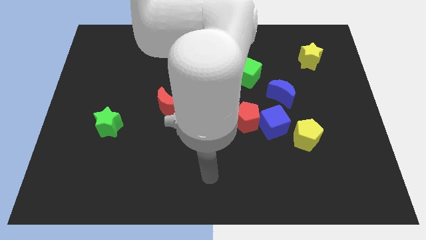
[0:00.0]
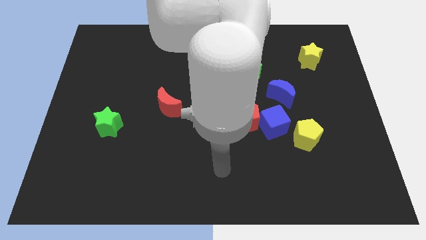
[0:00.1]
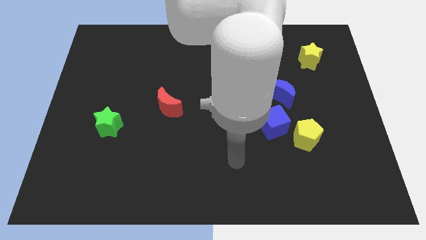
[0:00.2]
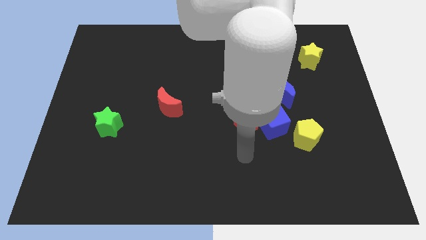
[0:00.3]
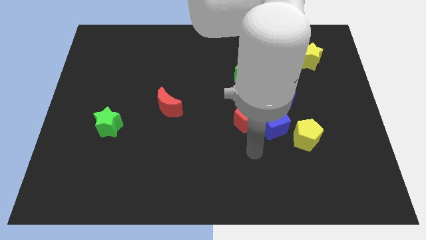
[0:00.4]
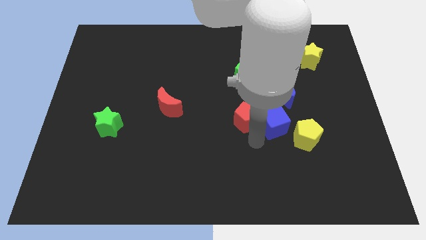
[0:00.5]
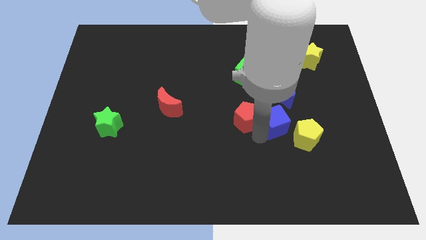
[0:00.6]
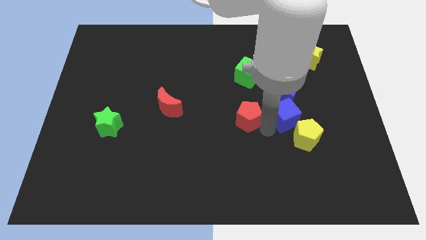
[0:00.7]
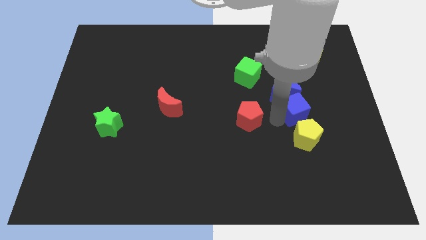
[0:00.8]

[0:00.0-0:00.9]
pull the red pentagon apart from the blue cube

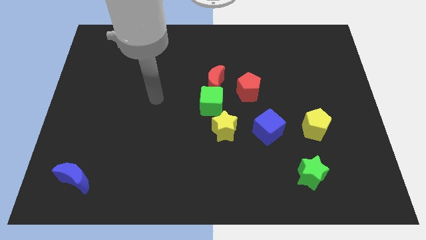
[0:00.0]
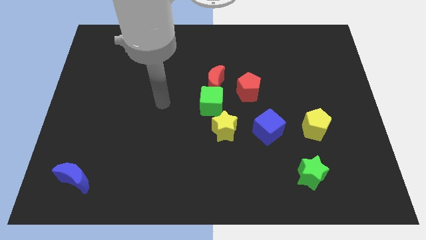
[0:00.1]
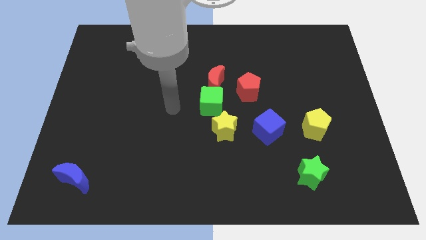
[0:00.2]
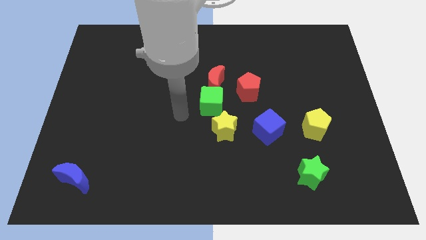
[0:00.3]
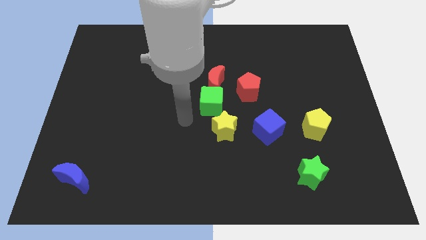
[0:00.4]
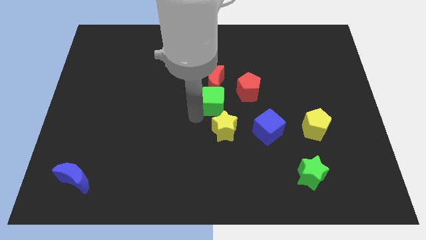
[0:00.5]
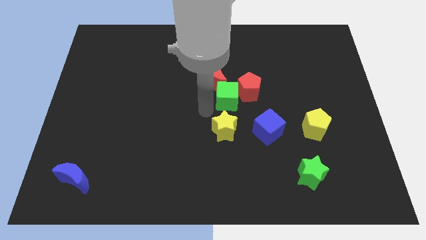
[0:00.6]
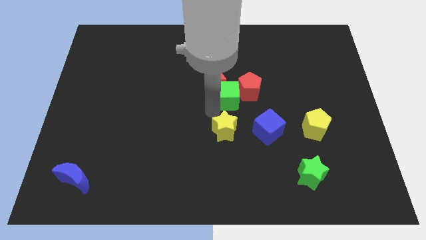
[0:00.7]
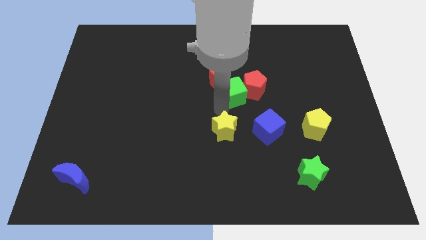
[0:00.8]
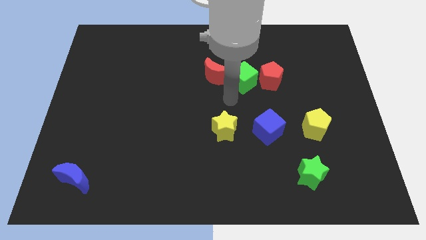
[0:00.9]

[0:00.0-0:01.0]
pull the red moon apart from the green cube and red pentagon

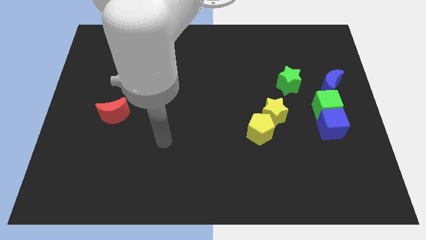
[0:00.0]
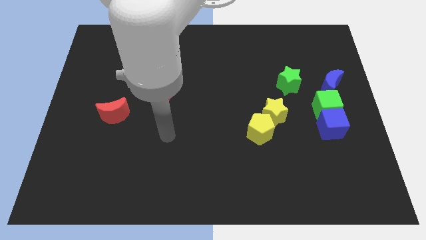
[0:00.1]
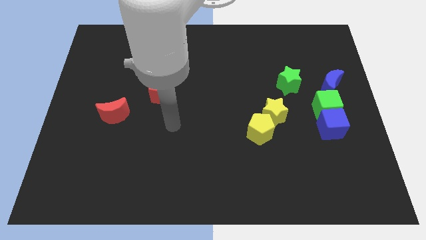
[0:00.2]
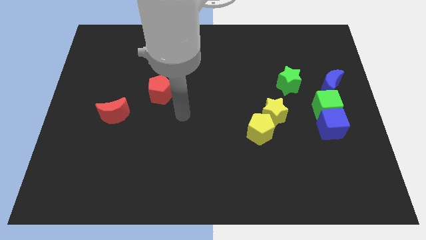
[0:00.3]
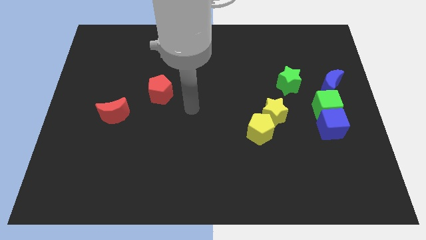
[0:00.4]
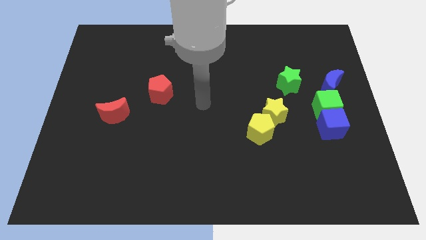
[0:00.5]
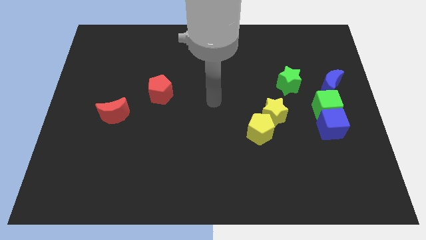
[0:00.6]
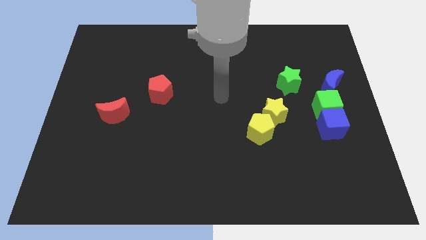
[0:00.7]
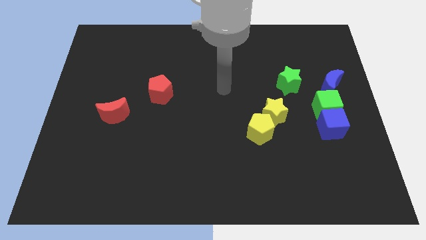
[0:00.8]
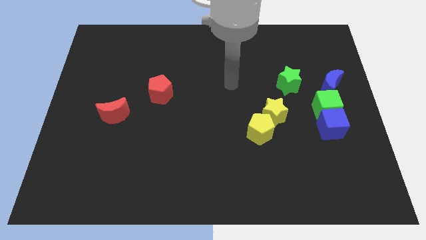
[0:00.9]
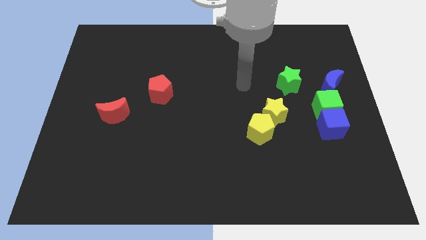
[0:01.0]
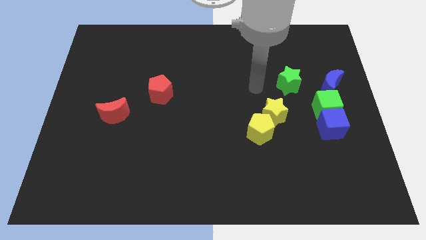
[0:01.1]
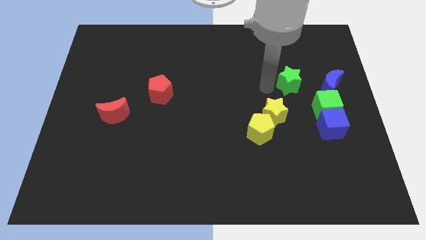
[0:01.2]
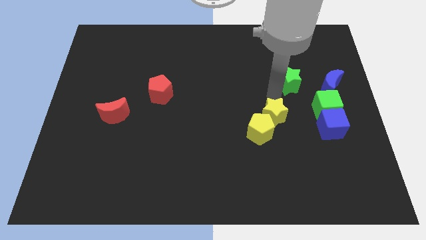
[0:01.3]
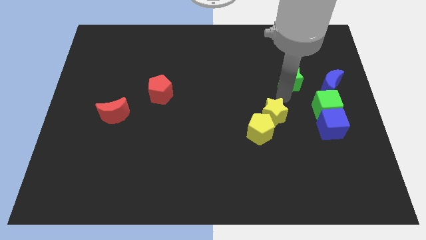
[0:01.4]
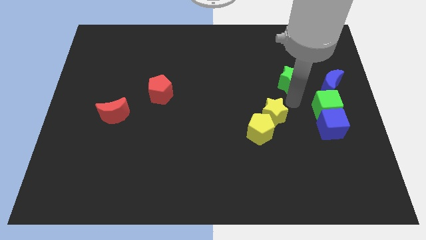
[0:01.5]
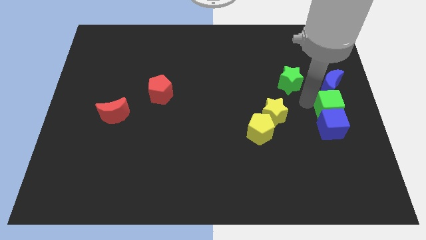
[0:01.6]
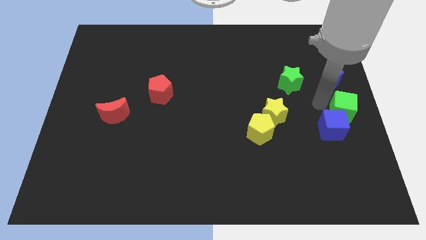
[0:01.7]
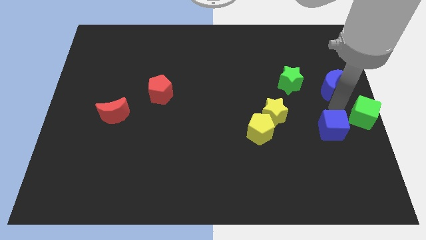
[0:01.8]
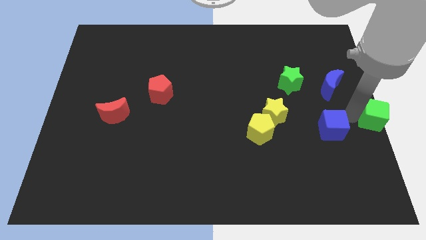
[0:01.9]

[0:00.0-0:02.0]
pull the blue cube apart from the green cube

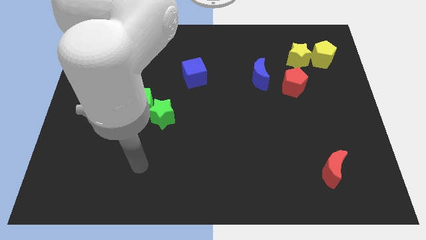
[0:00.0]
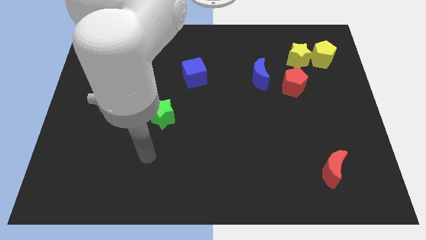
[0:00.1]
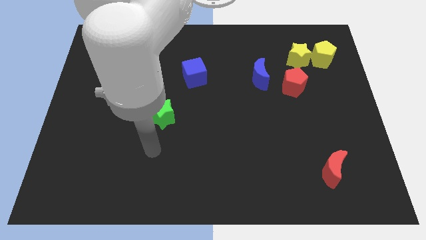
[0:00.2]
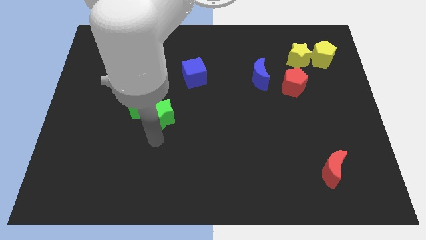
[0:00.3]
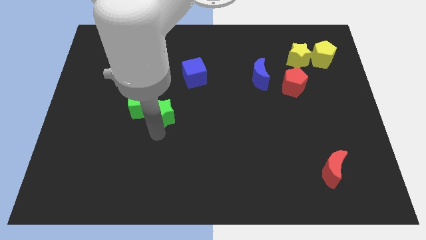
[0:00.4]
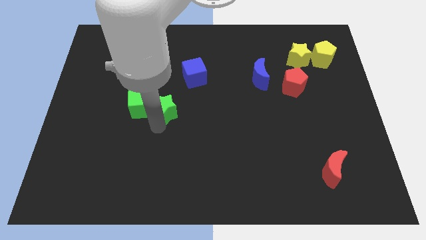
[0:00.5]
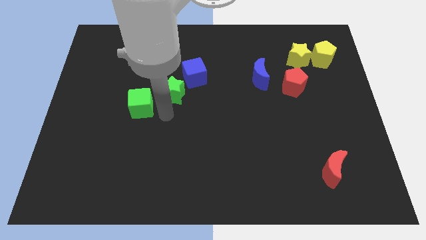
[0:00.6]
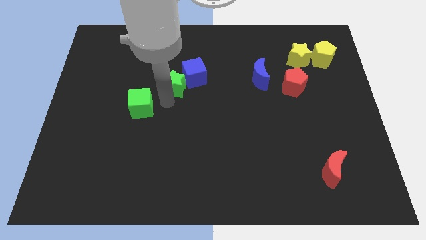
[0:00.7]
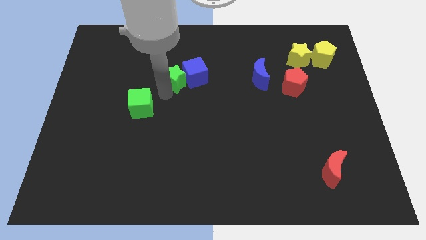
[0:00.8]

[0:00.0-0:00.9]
separate the green cube from the green star

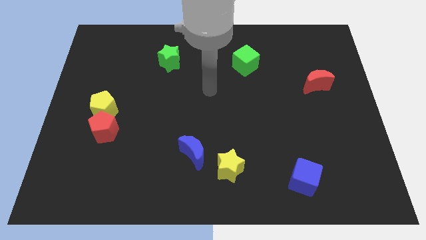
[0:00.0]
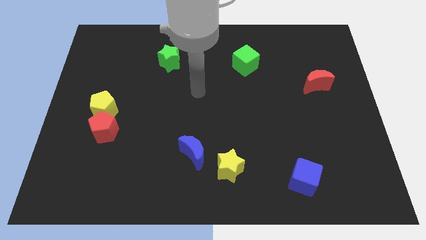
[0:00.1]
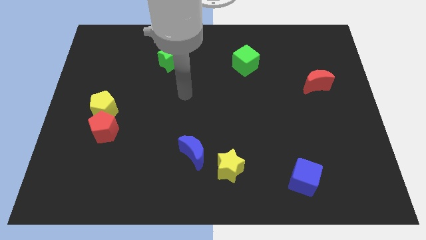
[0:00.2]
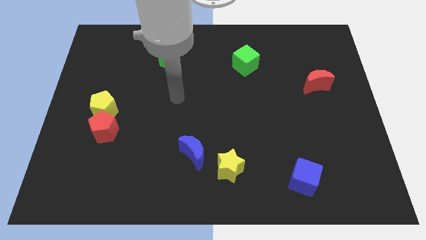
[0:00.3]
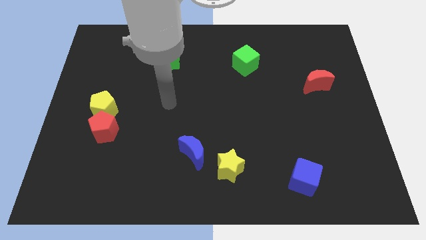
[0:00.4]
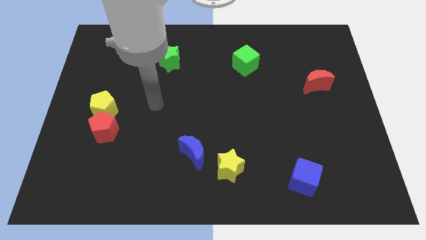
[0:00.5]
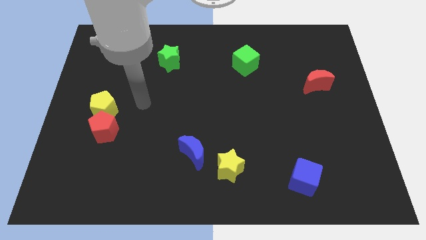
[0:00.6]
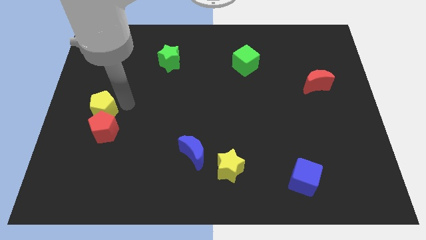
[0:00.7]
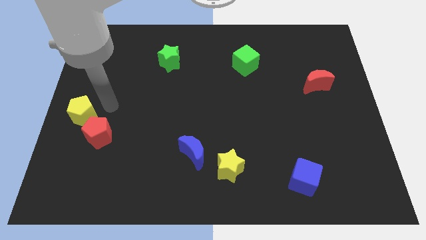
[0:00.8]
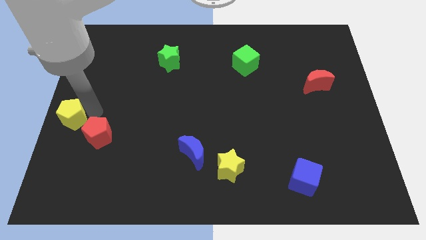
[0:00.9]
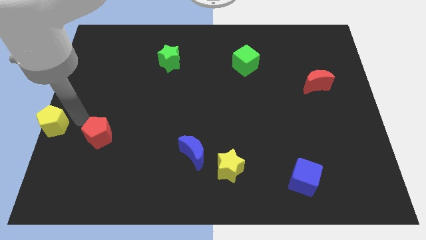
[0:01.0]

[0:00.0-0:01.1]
move the red pentagon away from the yellow pentagon

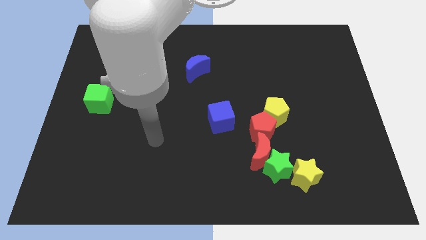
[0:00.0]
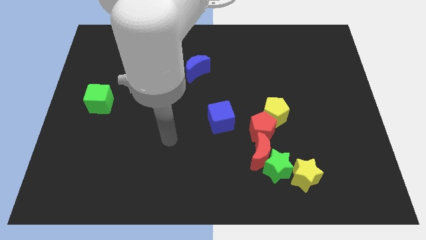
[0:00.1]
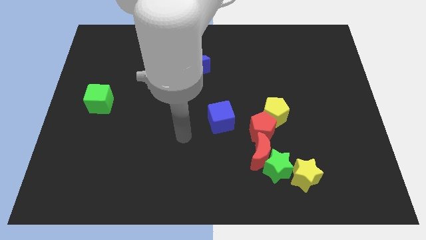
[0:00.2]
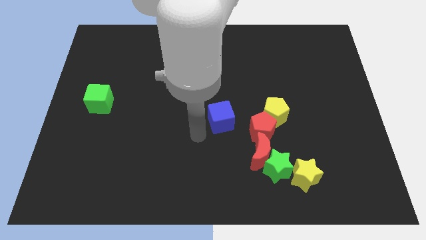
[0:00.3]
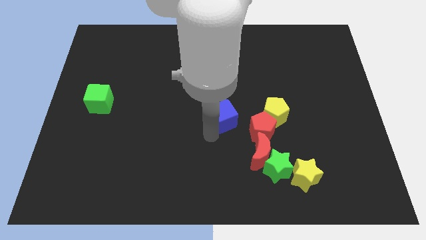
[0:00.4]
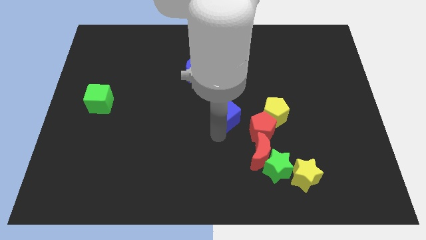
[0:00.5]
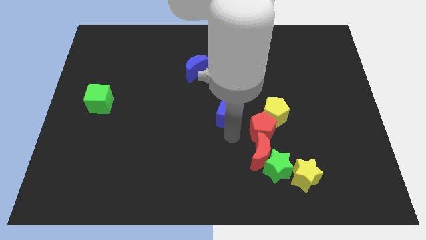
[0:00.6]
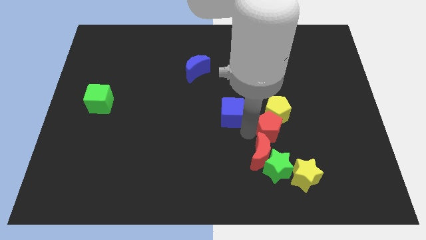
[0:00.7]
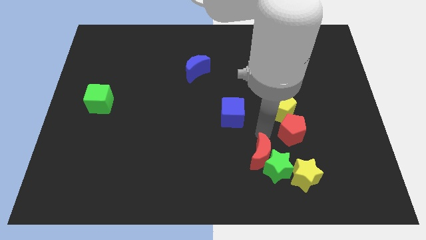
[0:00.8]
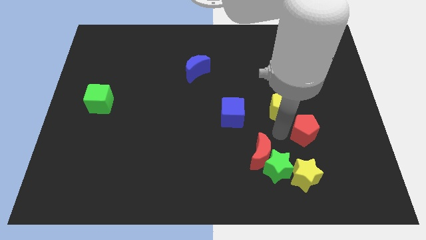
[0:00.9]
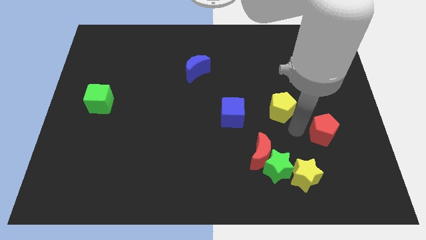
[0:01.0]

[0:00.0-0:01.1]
separate the yellow pentagon from the red pentagon

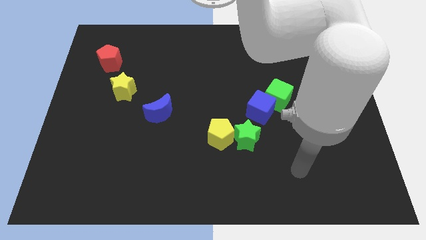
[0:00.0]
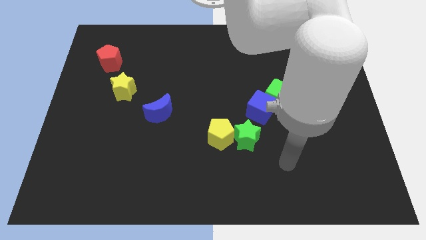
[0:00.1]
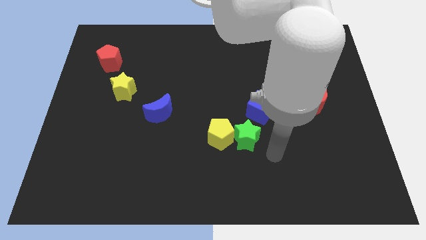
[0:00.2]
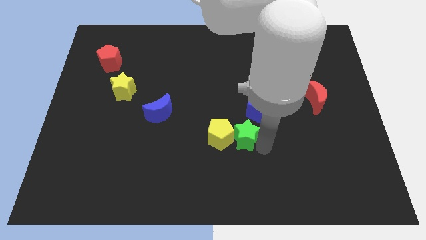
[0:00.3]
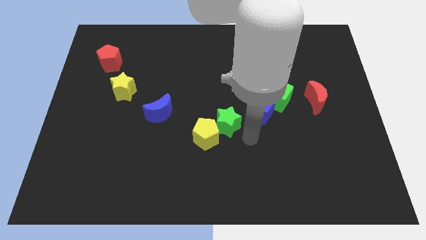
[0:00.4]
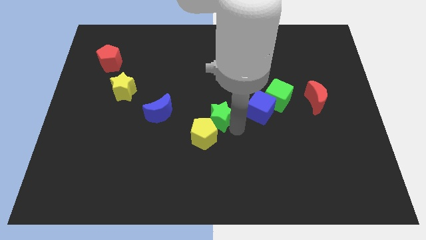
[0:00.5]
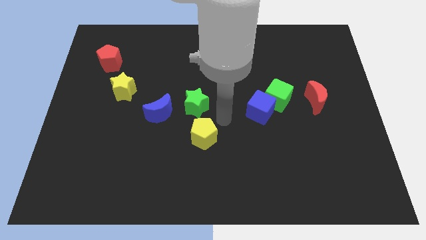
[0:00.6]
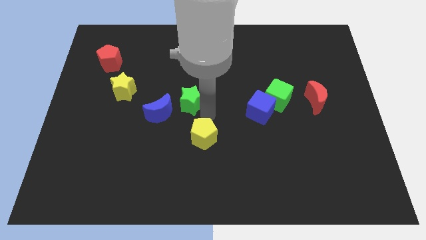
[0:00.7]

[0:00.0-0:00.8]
pull the yellow pentagon apart from the green star

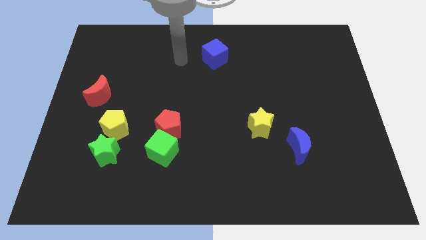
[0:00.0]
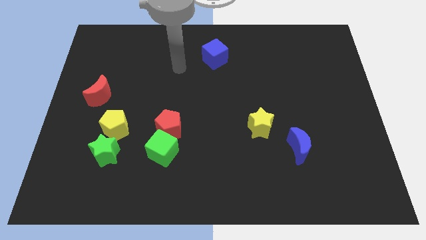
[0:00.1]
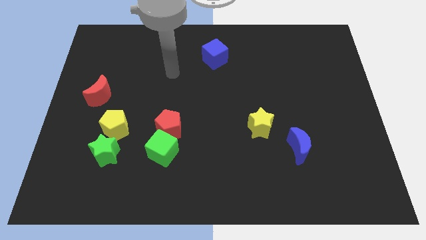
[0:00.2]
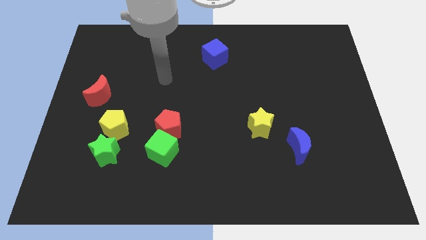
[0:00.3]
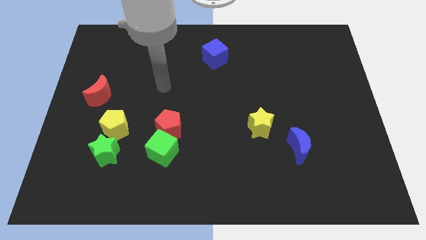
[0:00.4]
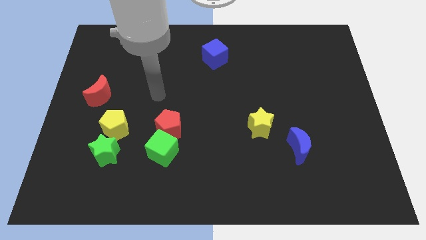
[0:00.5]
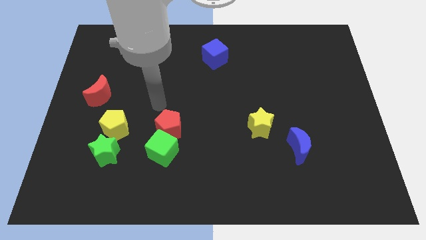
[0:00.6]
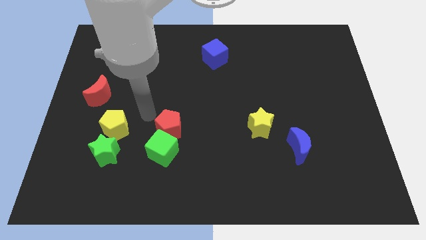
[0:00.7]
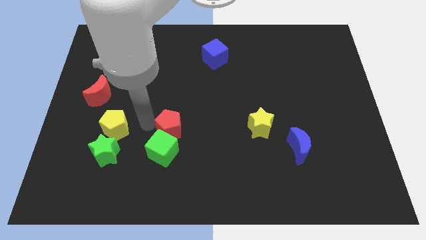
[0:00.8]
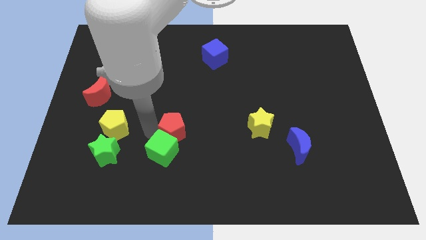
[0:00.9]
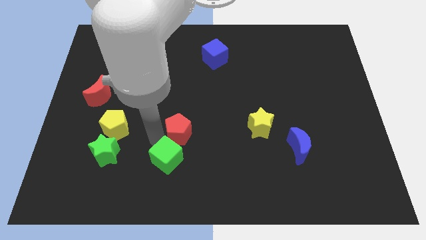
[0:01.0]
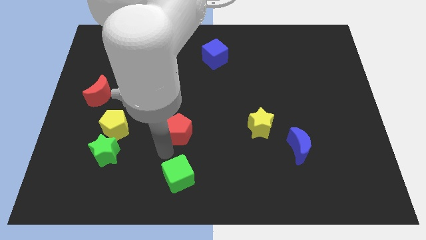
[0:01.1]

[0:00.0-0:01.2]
separate the red pentagon from the green cube

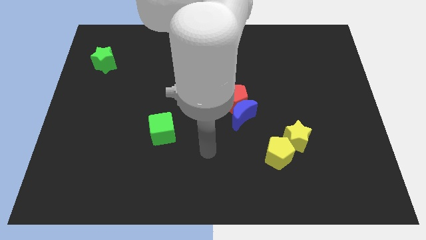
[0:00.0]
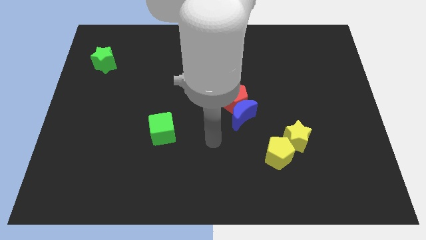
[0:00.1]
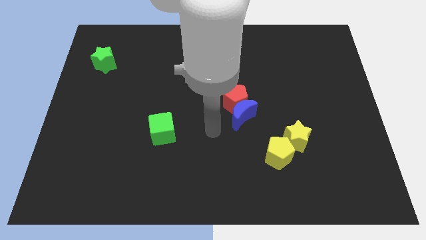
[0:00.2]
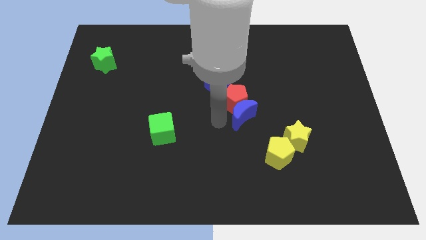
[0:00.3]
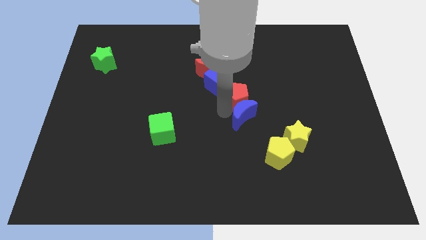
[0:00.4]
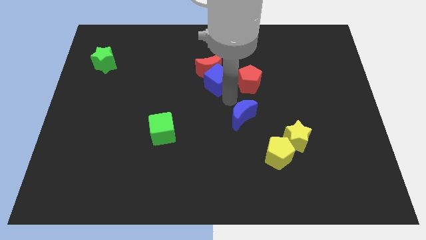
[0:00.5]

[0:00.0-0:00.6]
move the blue moon away from the red pentagon
